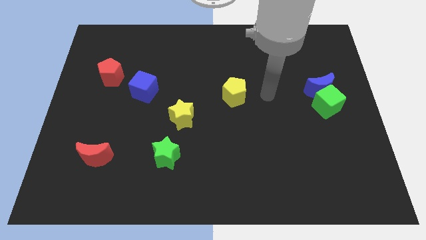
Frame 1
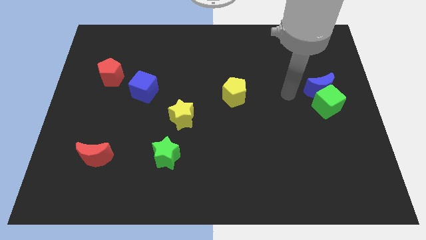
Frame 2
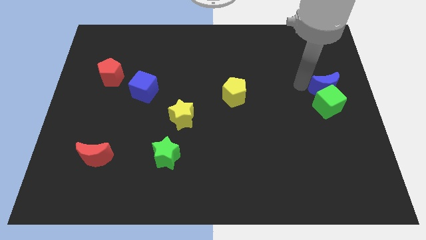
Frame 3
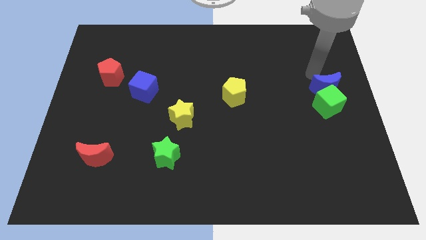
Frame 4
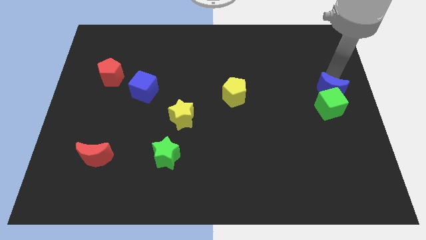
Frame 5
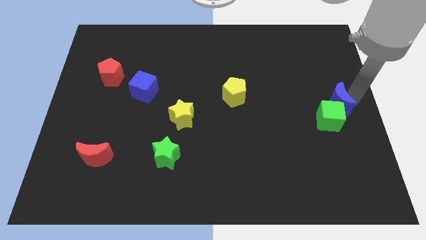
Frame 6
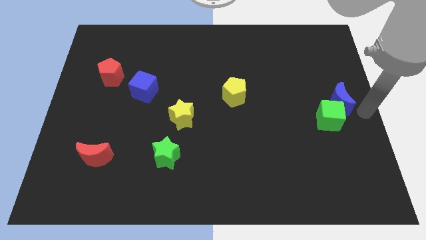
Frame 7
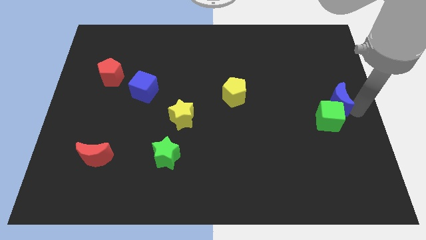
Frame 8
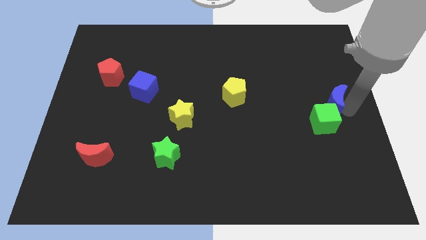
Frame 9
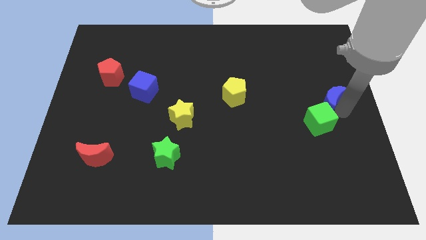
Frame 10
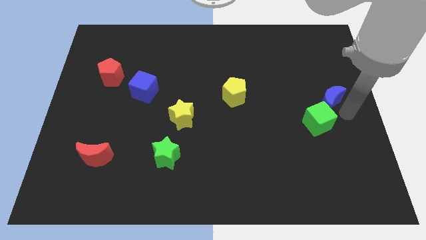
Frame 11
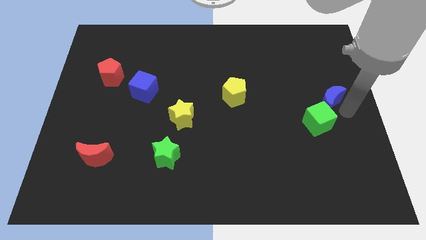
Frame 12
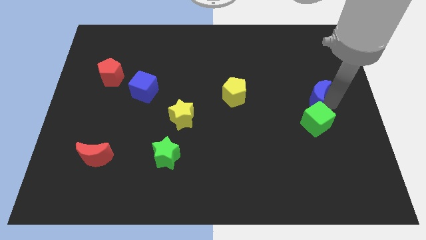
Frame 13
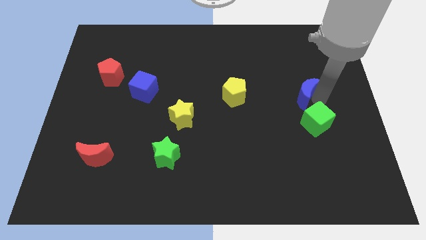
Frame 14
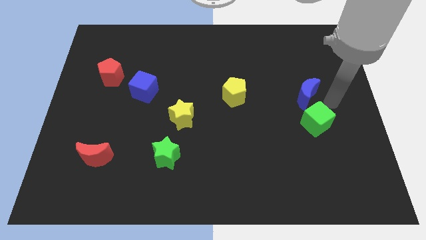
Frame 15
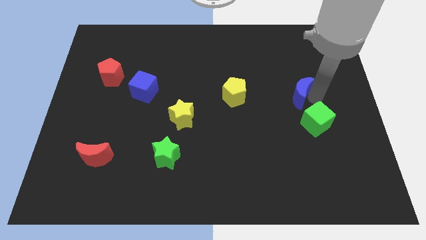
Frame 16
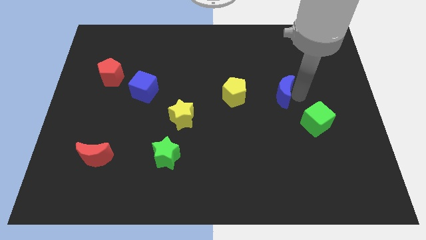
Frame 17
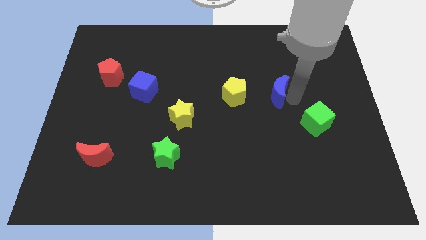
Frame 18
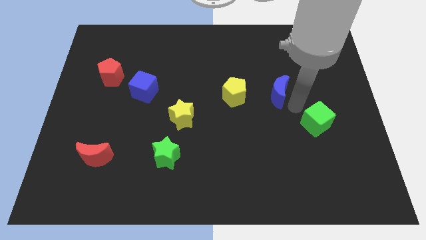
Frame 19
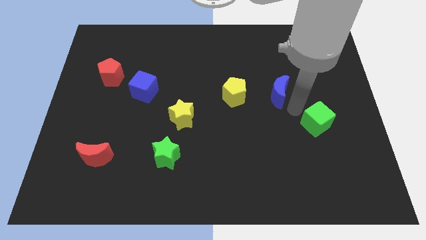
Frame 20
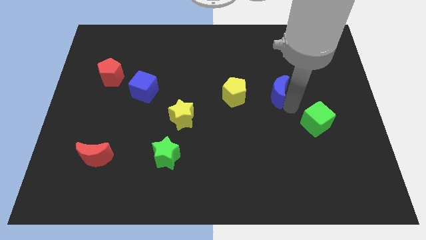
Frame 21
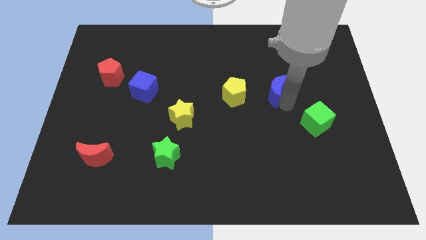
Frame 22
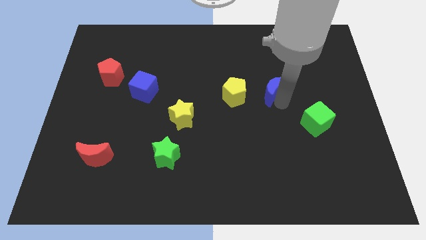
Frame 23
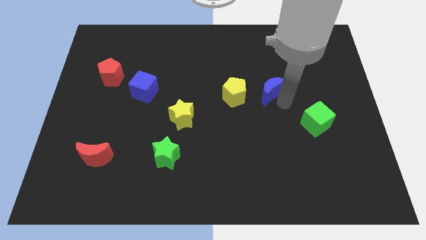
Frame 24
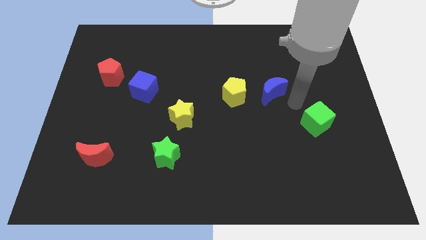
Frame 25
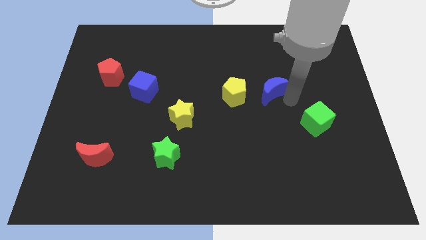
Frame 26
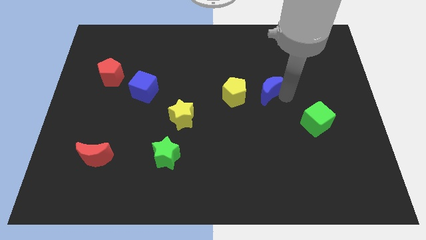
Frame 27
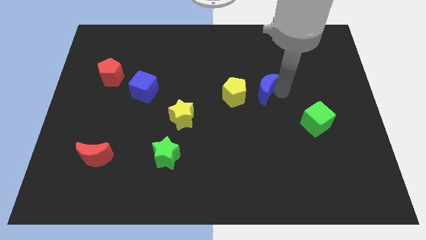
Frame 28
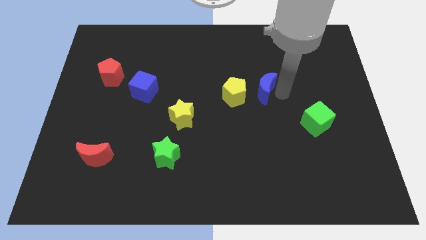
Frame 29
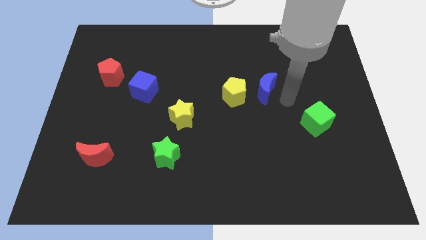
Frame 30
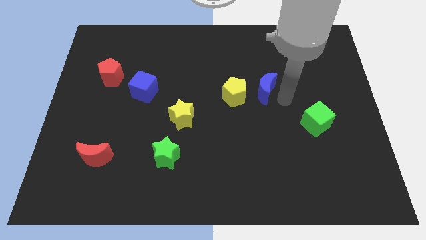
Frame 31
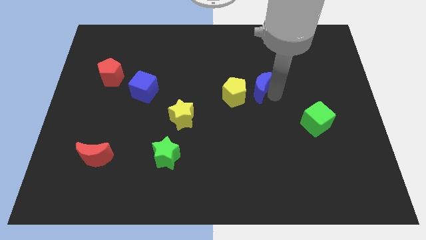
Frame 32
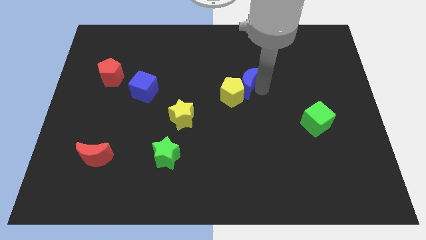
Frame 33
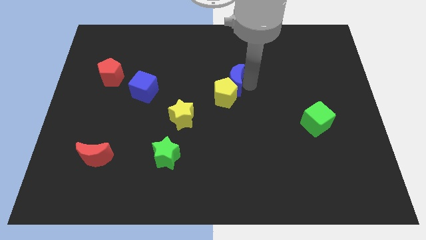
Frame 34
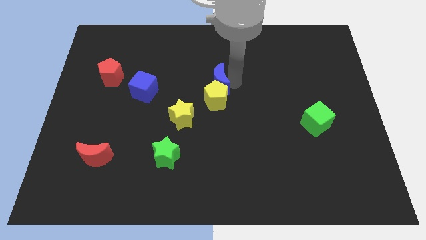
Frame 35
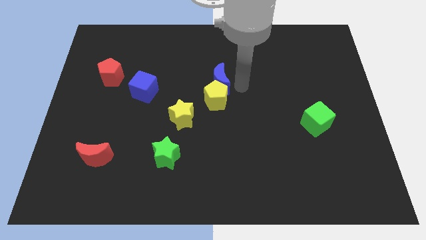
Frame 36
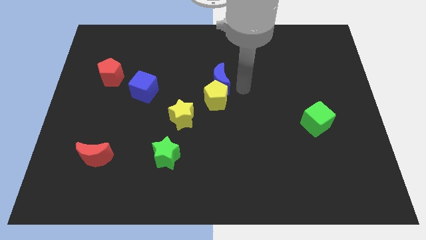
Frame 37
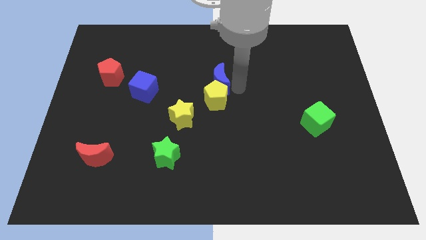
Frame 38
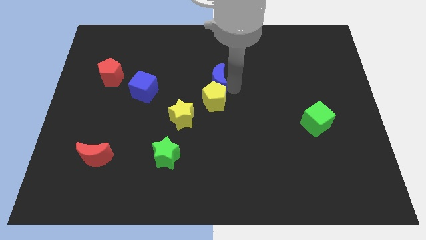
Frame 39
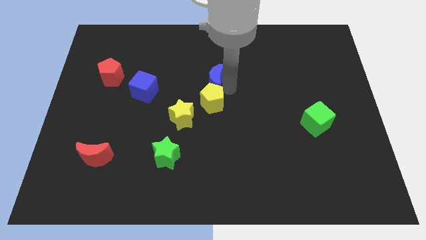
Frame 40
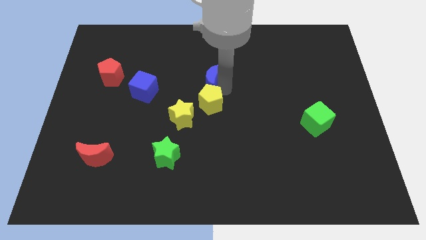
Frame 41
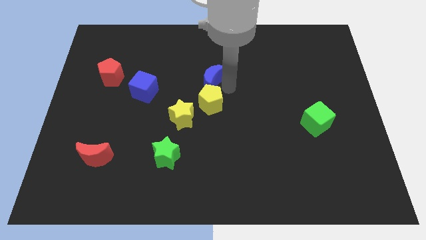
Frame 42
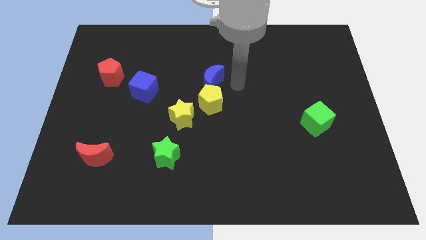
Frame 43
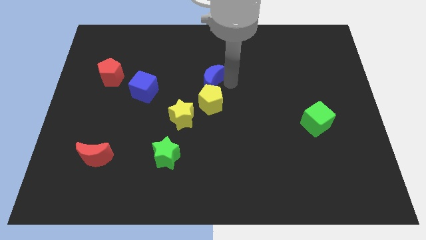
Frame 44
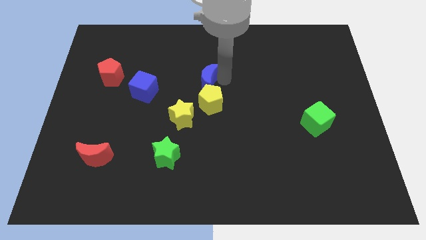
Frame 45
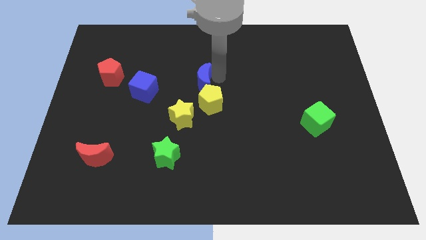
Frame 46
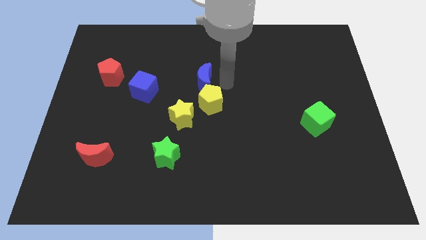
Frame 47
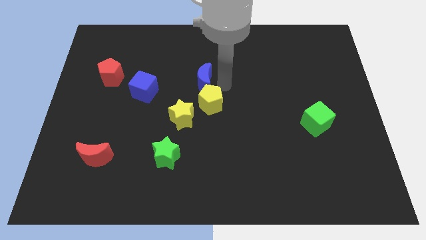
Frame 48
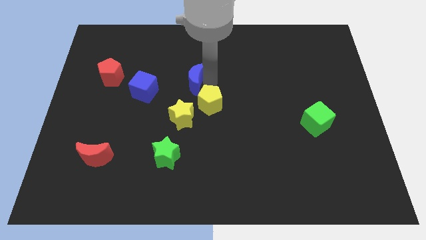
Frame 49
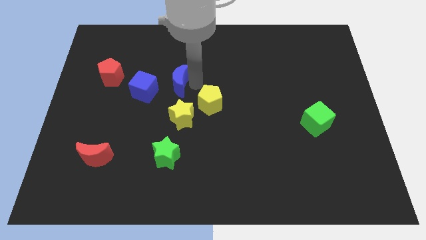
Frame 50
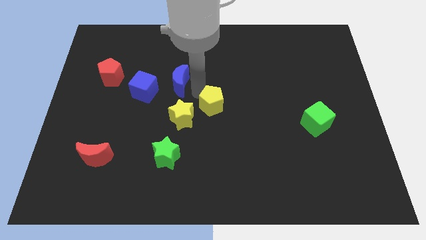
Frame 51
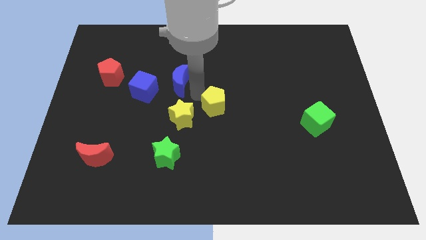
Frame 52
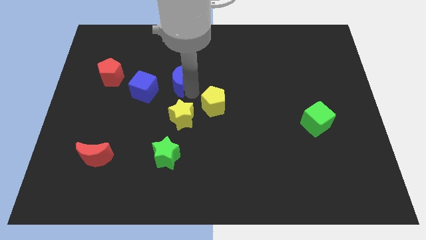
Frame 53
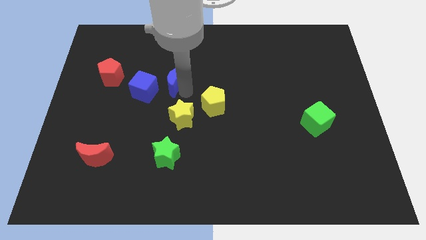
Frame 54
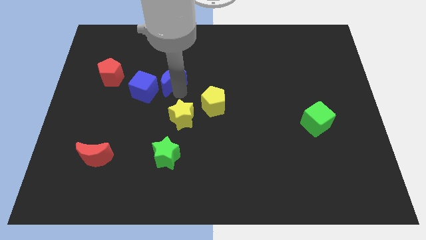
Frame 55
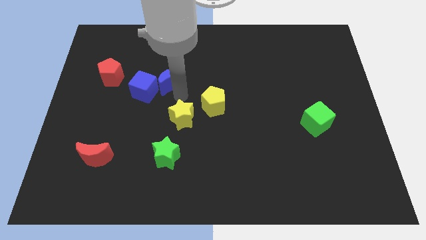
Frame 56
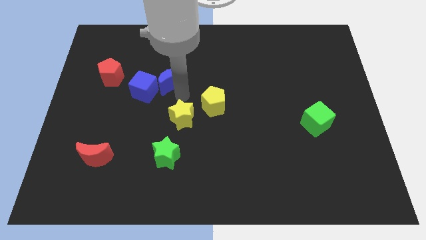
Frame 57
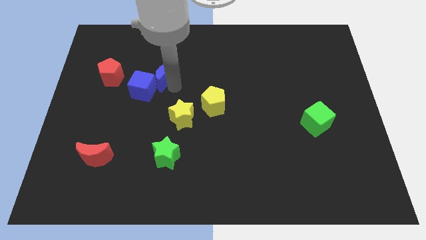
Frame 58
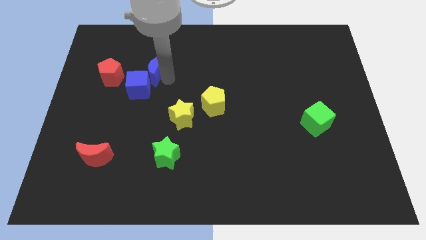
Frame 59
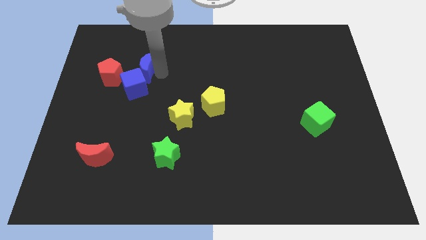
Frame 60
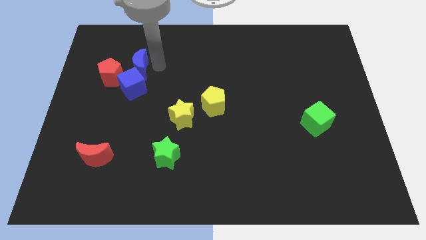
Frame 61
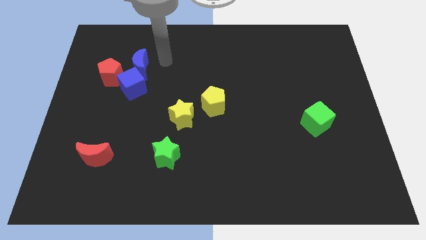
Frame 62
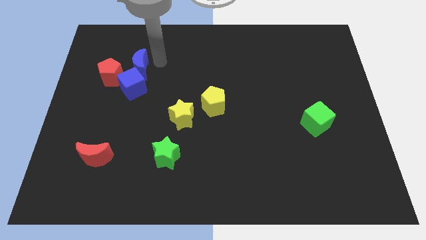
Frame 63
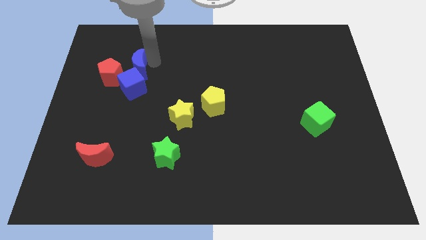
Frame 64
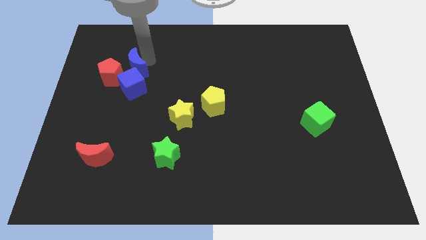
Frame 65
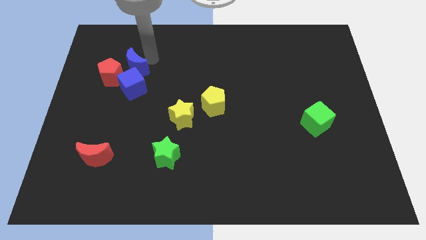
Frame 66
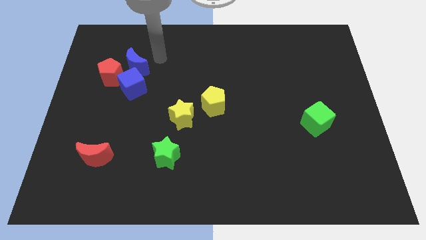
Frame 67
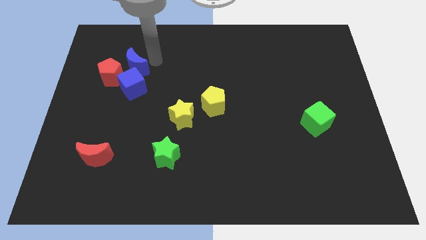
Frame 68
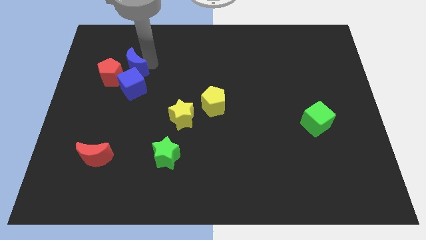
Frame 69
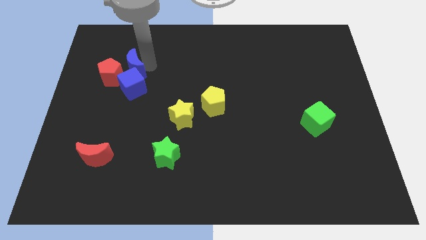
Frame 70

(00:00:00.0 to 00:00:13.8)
move the blue moon close to the red pentagon

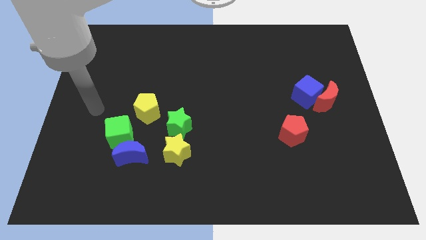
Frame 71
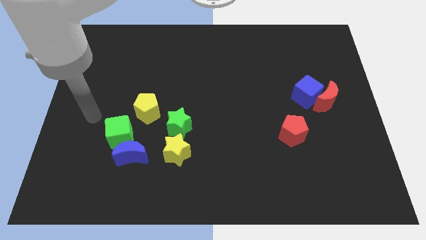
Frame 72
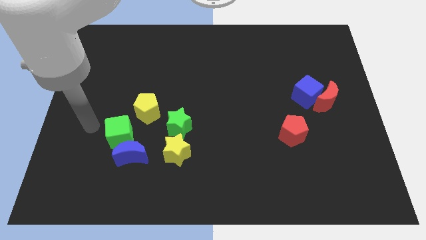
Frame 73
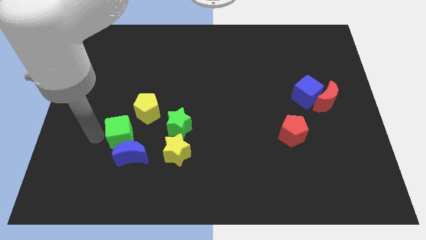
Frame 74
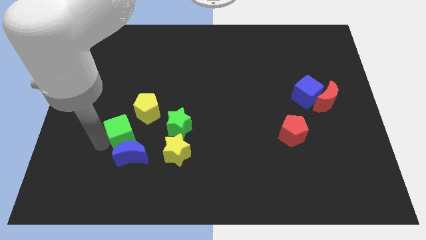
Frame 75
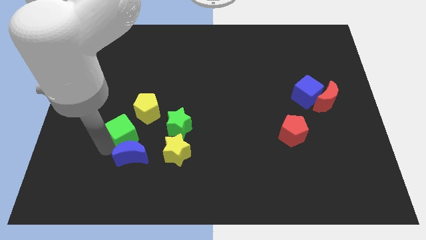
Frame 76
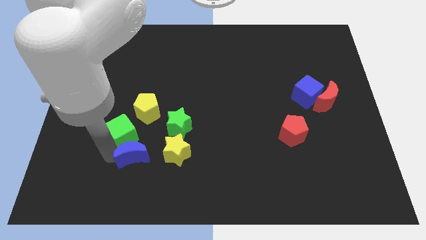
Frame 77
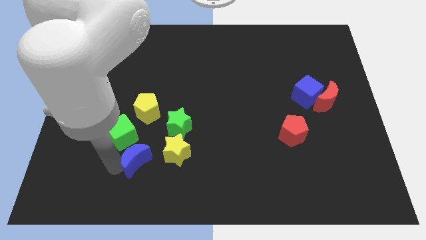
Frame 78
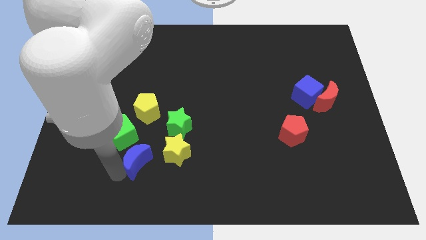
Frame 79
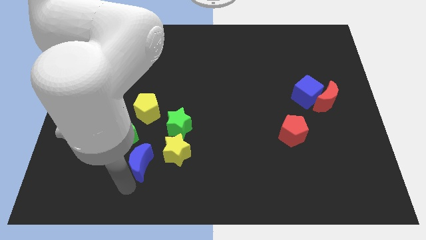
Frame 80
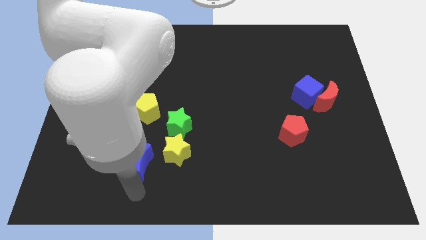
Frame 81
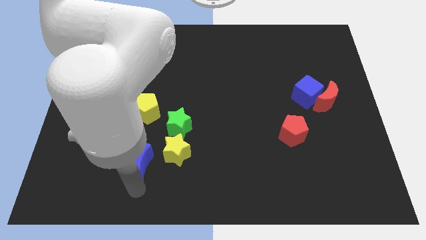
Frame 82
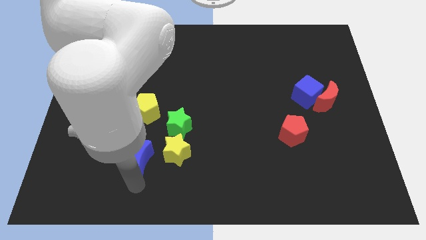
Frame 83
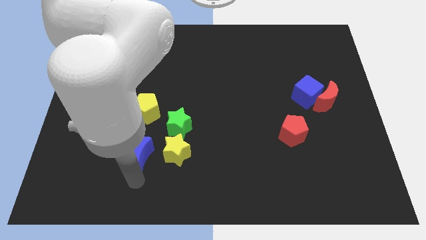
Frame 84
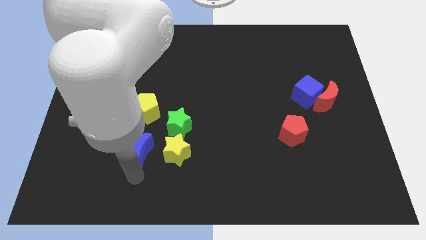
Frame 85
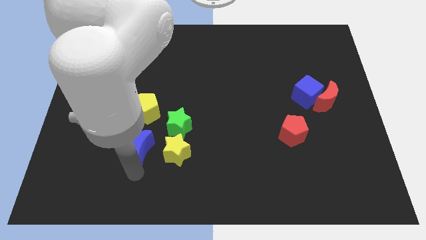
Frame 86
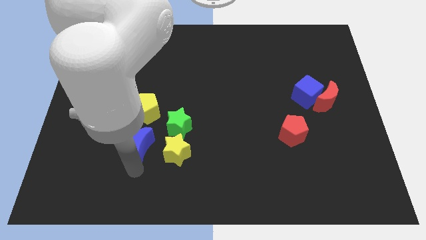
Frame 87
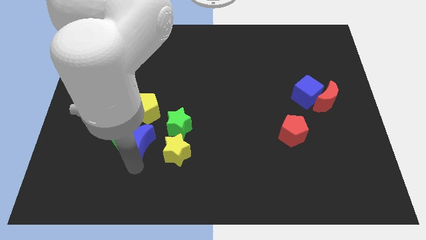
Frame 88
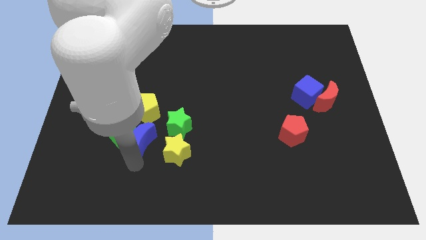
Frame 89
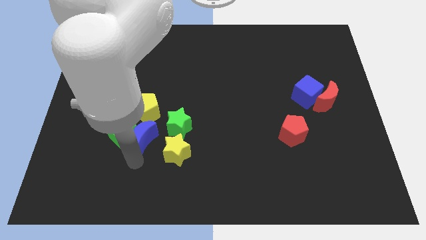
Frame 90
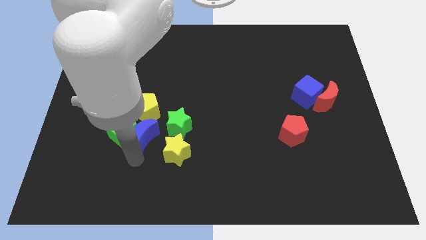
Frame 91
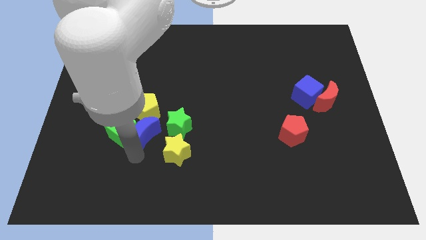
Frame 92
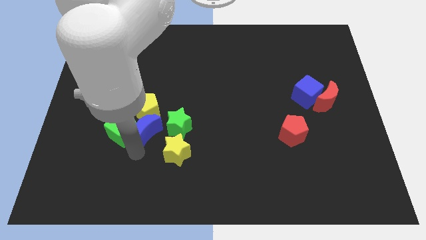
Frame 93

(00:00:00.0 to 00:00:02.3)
push the blue moon towards the yellow pentagon
